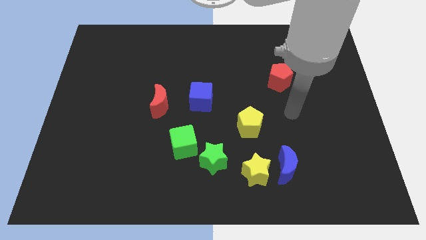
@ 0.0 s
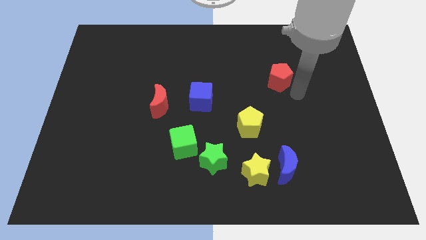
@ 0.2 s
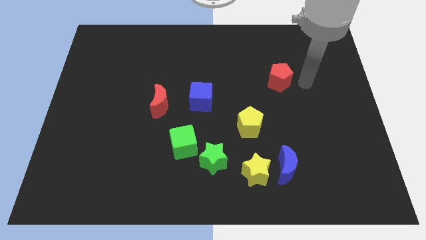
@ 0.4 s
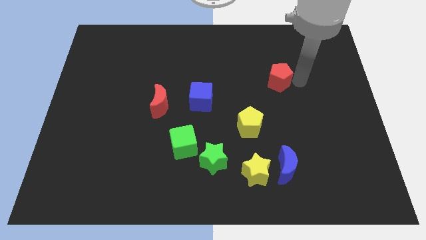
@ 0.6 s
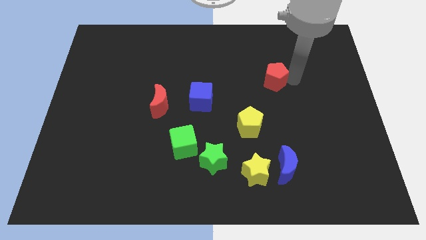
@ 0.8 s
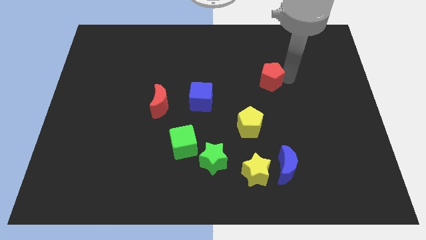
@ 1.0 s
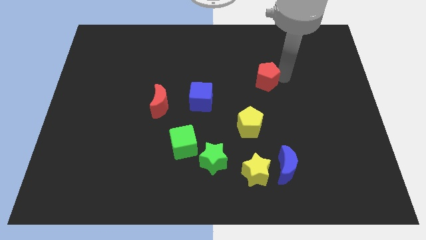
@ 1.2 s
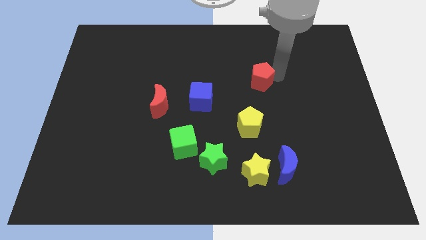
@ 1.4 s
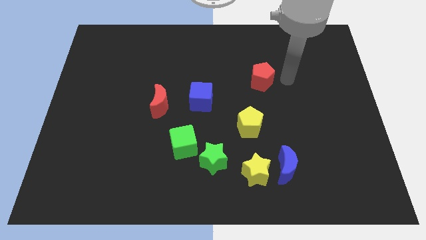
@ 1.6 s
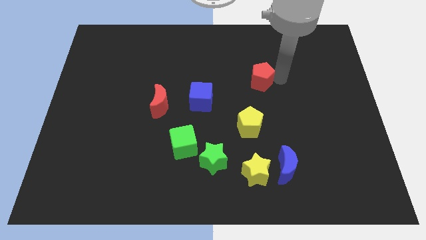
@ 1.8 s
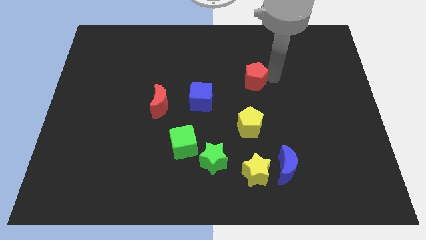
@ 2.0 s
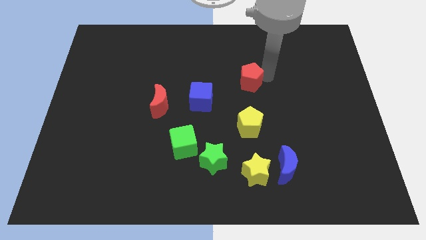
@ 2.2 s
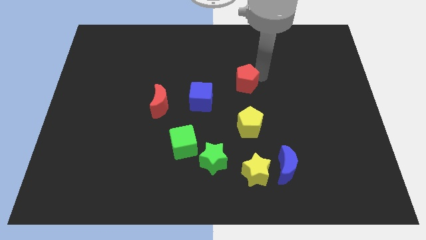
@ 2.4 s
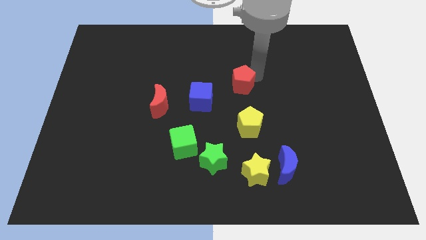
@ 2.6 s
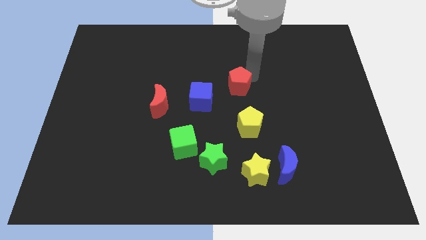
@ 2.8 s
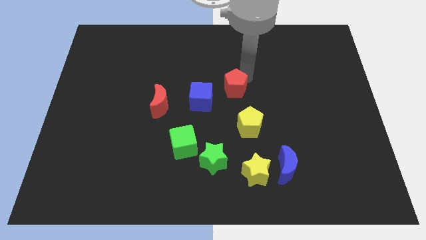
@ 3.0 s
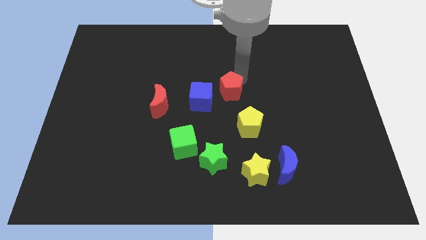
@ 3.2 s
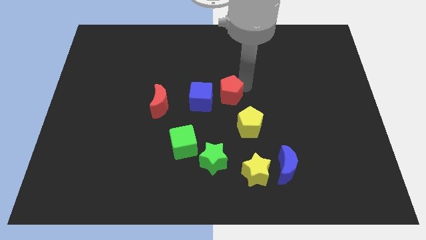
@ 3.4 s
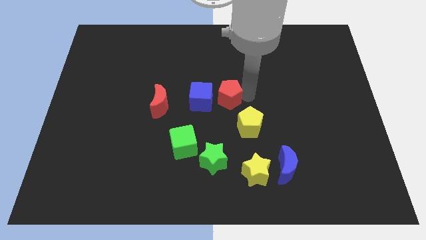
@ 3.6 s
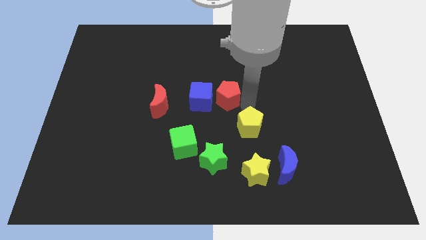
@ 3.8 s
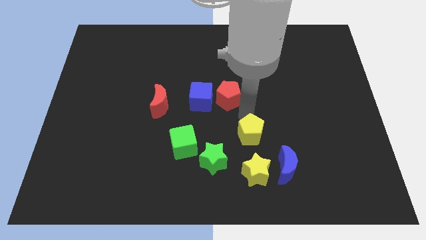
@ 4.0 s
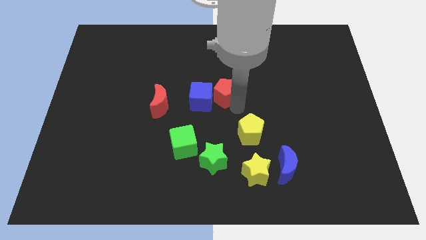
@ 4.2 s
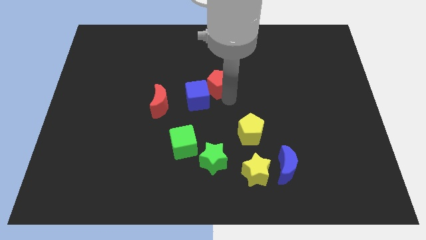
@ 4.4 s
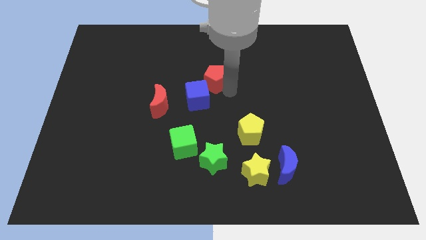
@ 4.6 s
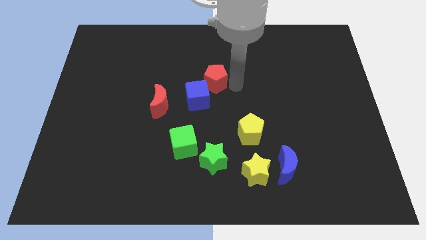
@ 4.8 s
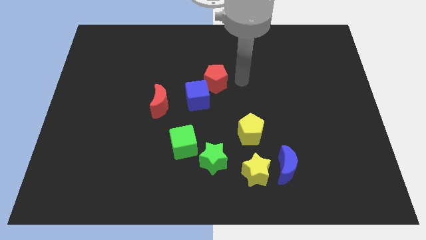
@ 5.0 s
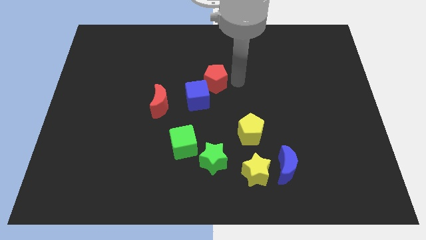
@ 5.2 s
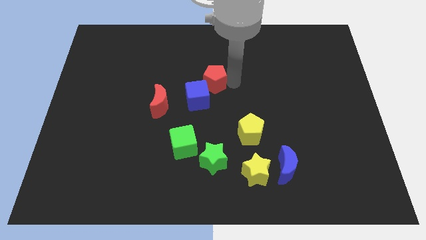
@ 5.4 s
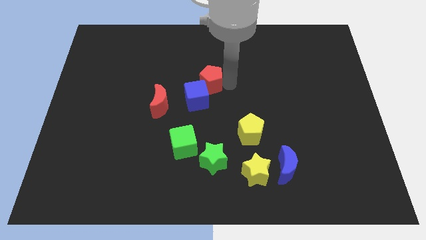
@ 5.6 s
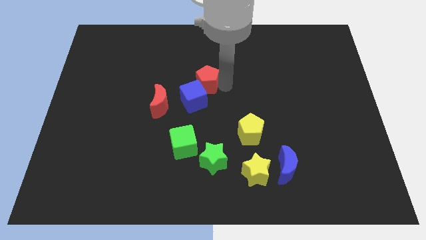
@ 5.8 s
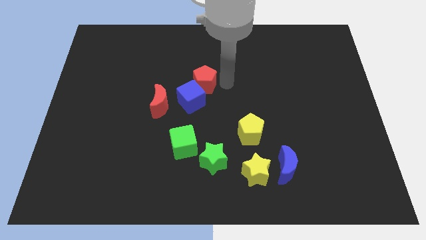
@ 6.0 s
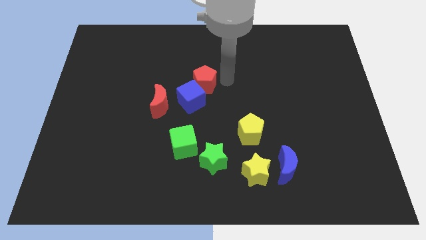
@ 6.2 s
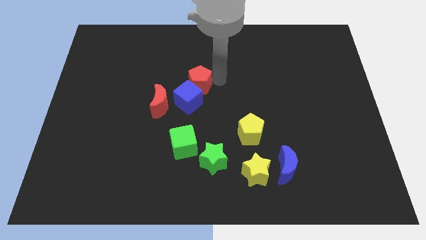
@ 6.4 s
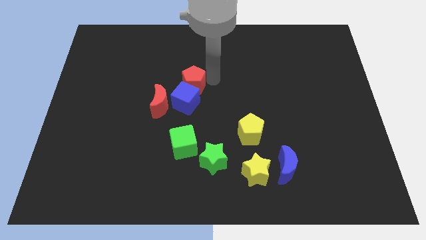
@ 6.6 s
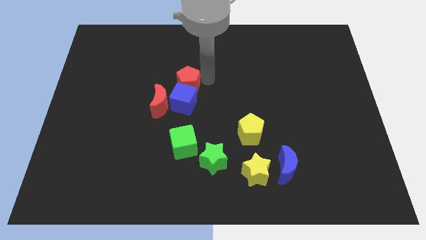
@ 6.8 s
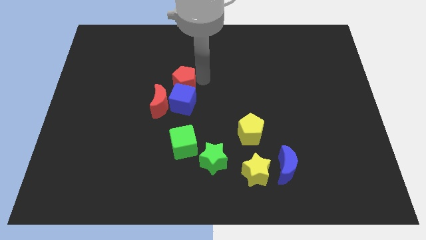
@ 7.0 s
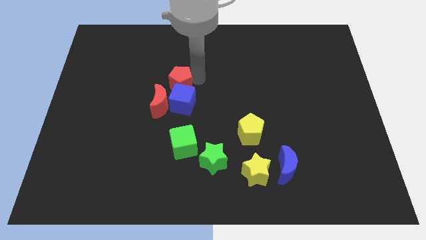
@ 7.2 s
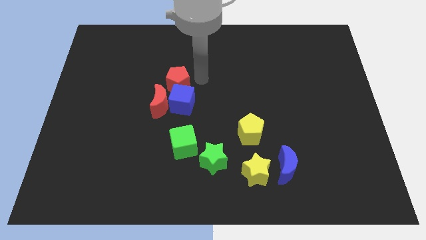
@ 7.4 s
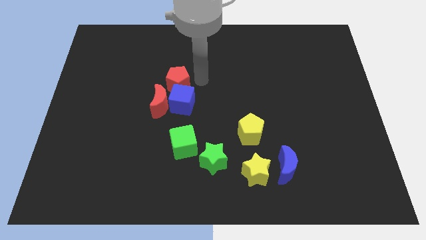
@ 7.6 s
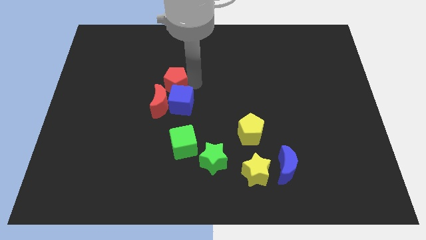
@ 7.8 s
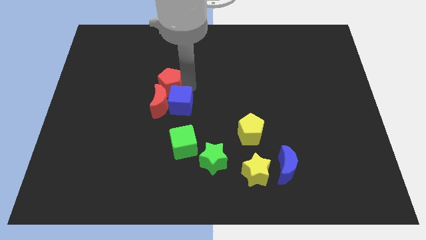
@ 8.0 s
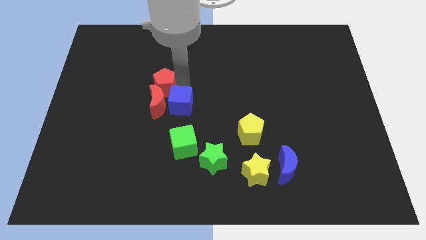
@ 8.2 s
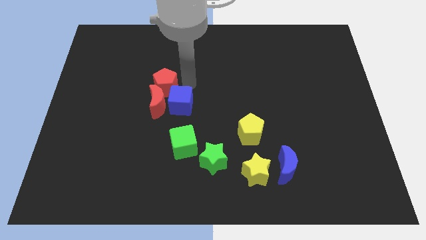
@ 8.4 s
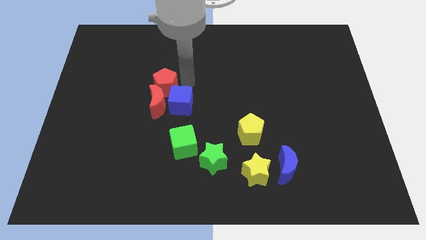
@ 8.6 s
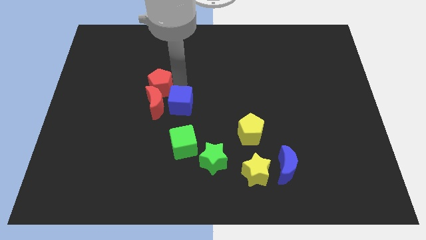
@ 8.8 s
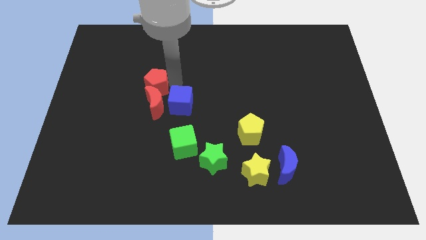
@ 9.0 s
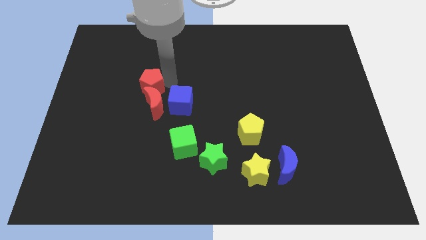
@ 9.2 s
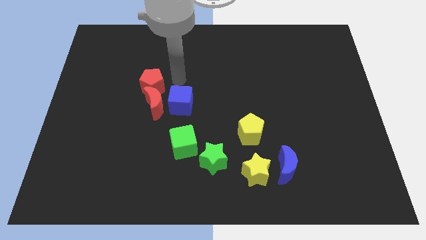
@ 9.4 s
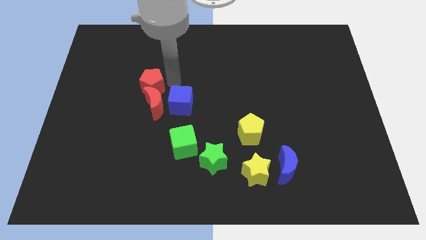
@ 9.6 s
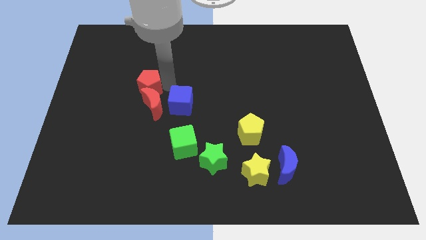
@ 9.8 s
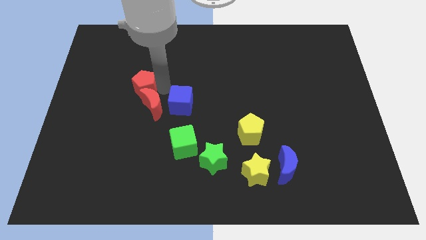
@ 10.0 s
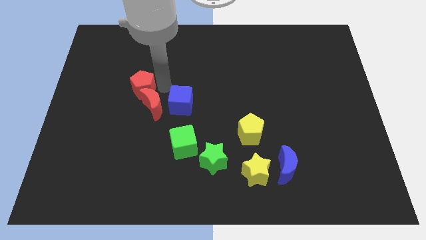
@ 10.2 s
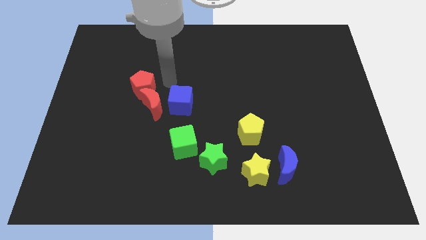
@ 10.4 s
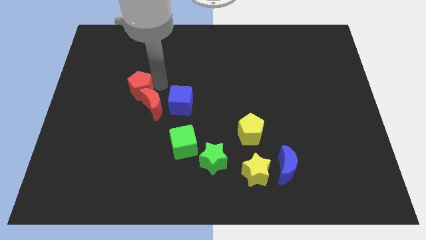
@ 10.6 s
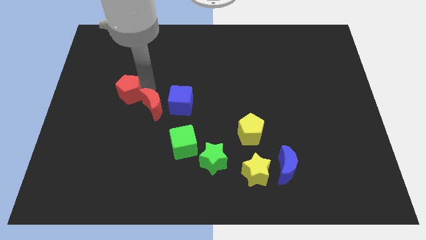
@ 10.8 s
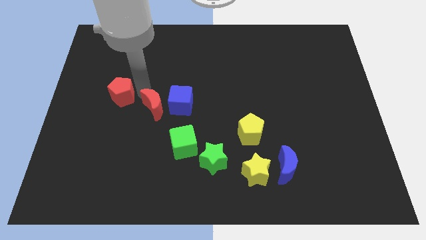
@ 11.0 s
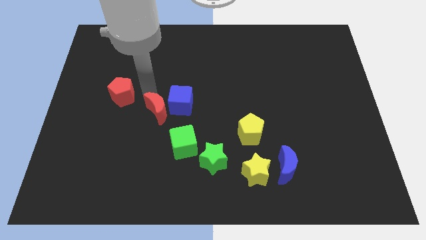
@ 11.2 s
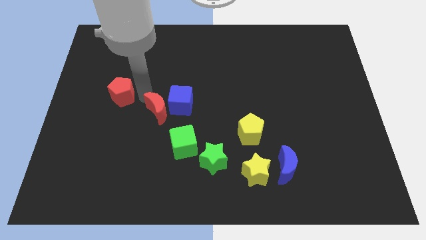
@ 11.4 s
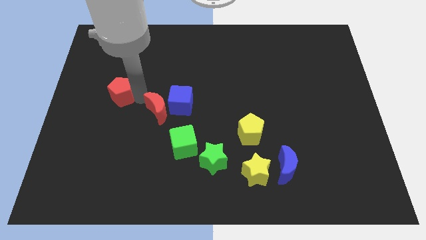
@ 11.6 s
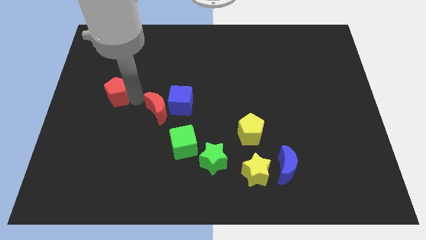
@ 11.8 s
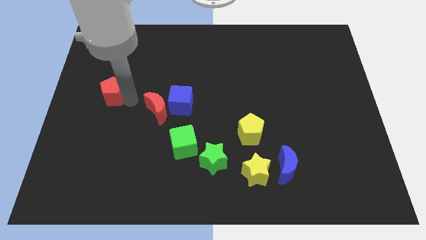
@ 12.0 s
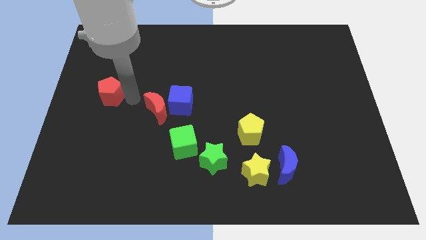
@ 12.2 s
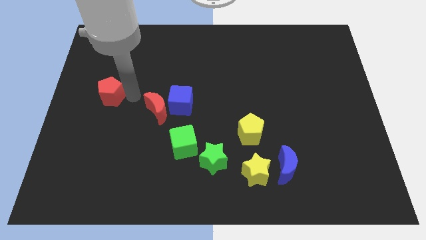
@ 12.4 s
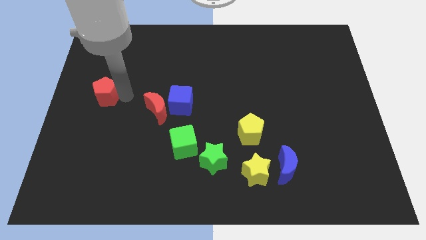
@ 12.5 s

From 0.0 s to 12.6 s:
move the red pentagon to the left side
